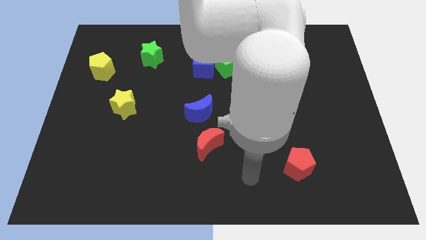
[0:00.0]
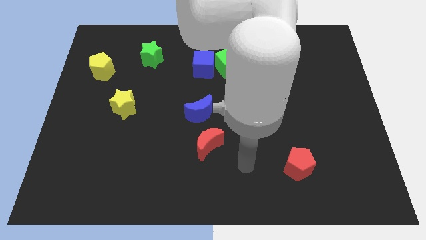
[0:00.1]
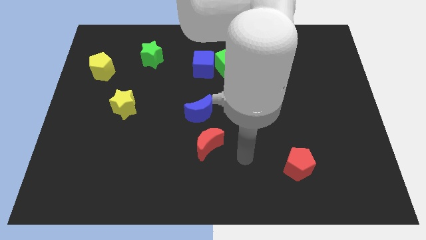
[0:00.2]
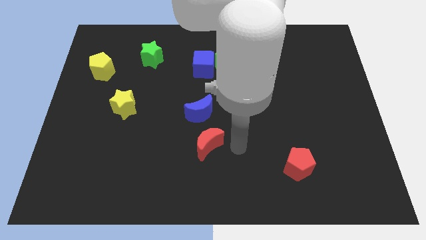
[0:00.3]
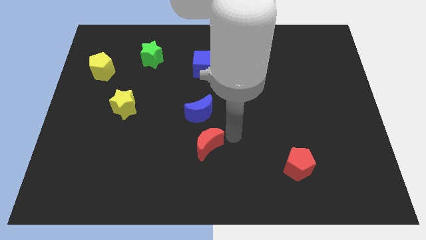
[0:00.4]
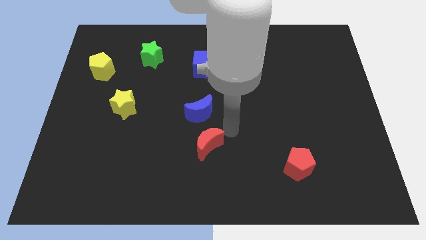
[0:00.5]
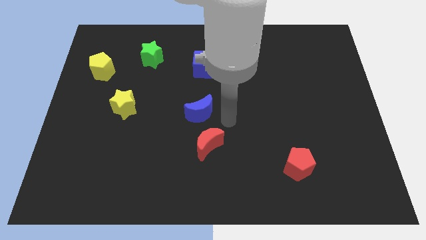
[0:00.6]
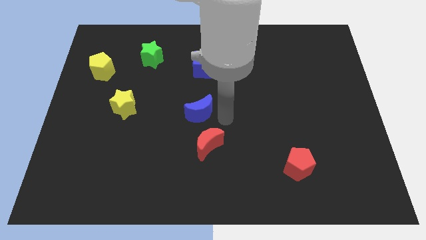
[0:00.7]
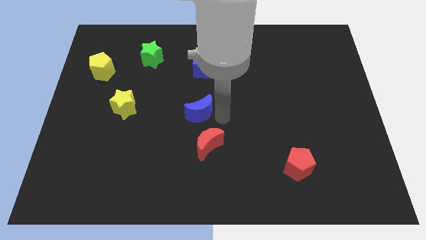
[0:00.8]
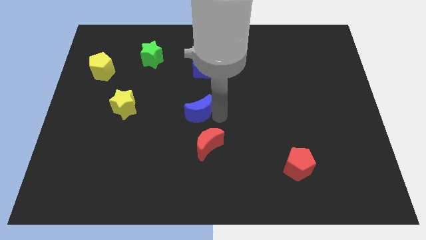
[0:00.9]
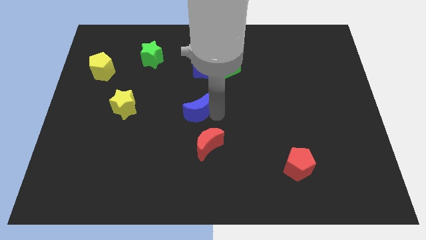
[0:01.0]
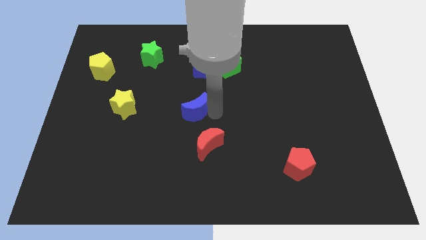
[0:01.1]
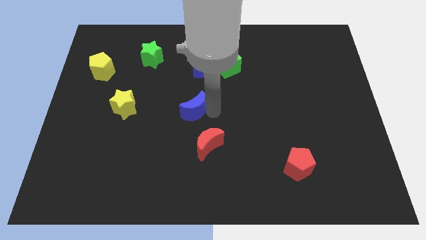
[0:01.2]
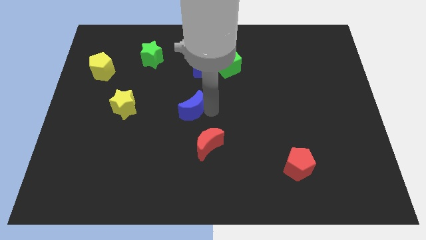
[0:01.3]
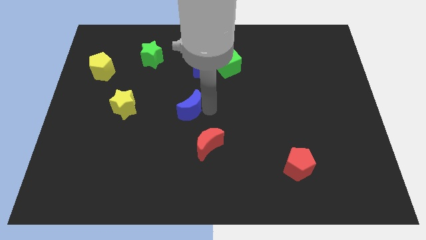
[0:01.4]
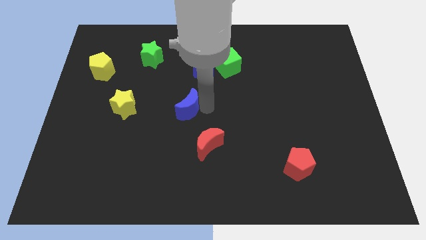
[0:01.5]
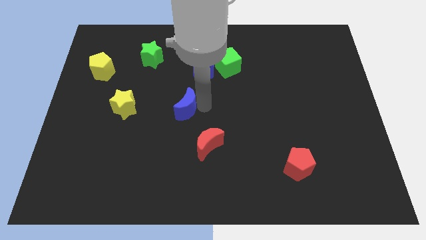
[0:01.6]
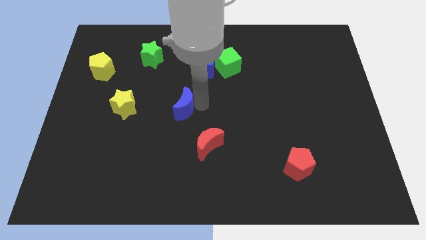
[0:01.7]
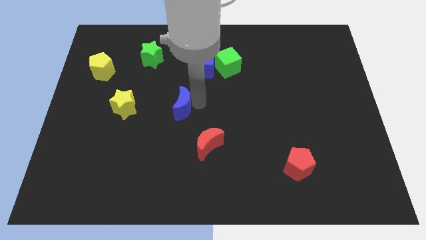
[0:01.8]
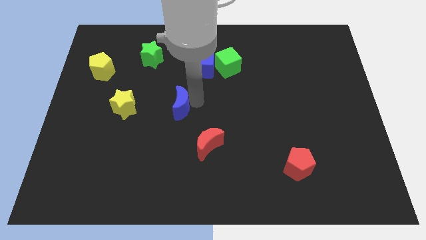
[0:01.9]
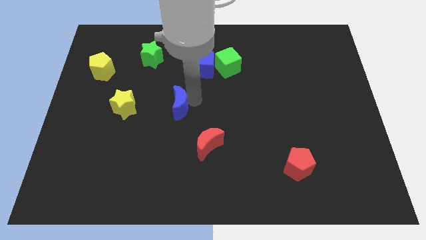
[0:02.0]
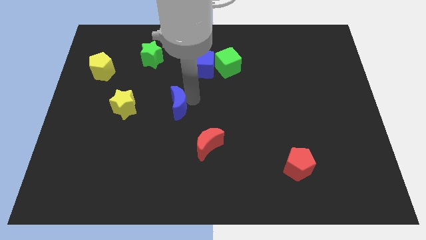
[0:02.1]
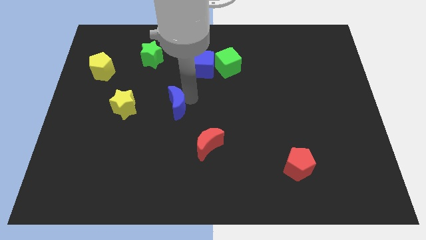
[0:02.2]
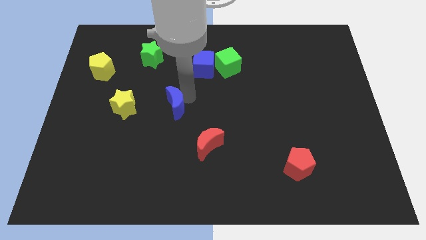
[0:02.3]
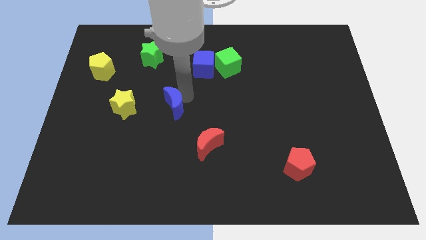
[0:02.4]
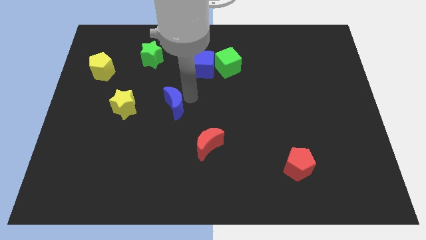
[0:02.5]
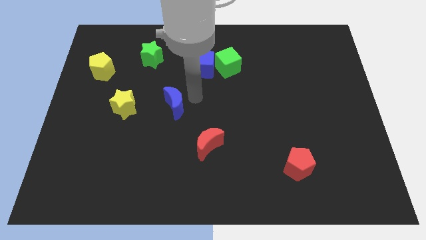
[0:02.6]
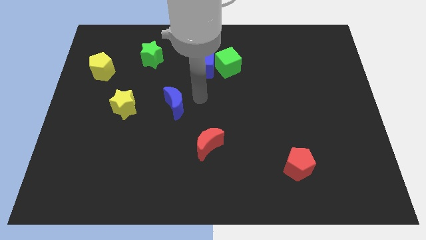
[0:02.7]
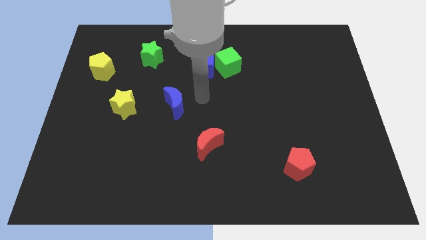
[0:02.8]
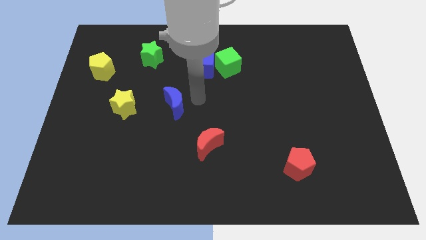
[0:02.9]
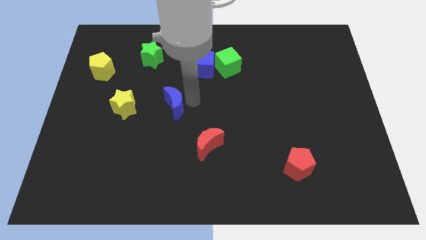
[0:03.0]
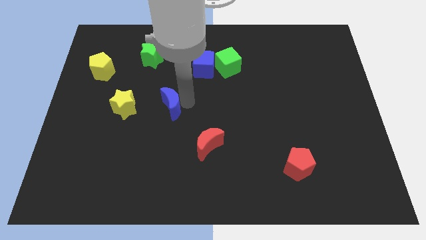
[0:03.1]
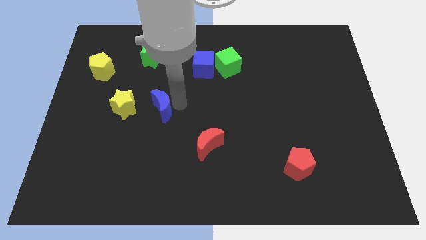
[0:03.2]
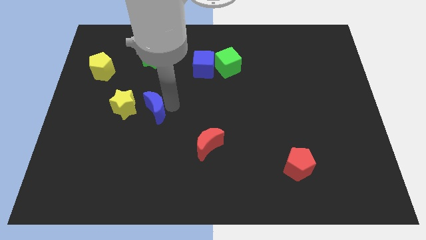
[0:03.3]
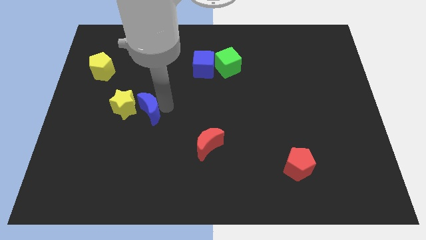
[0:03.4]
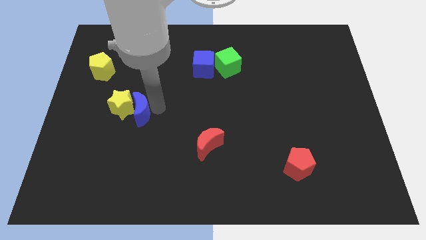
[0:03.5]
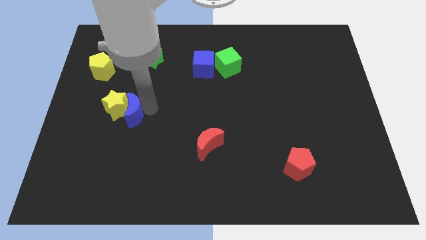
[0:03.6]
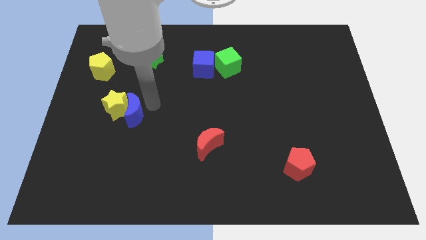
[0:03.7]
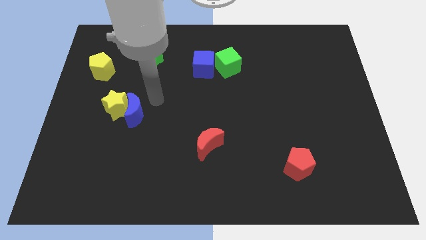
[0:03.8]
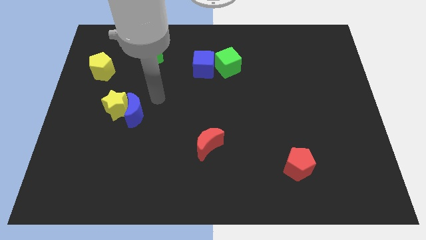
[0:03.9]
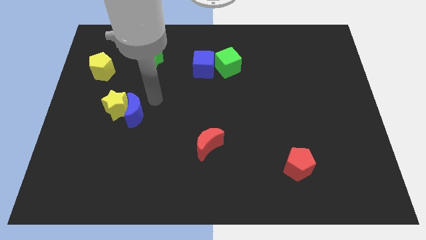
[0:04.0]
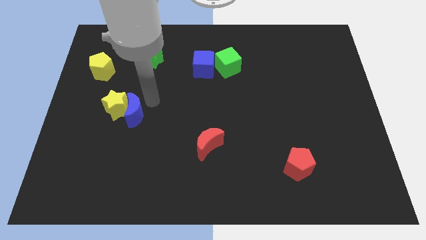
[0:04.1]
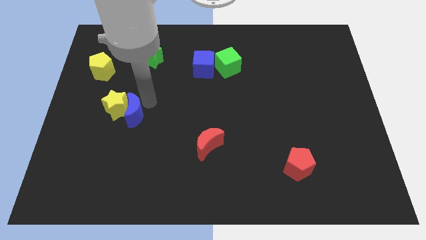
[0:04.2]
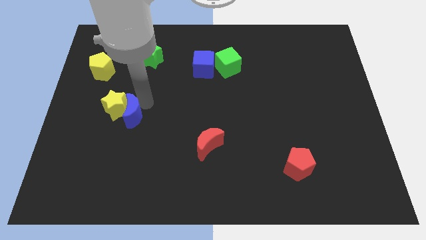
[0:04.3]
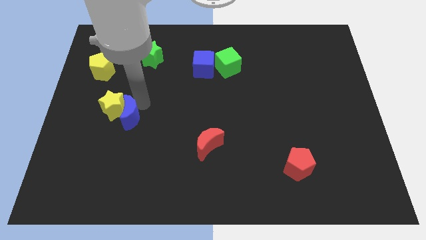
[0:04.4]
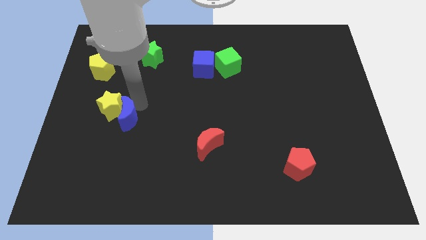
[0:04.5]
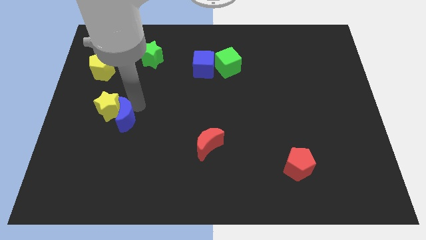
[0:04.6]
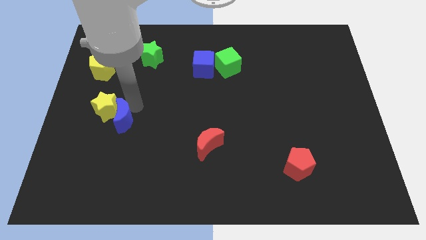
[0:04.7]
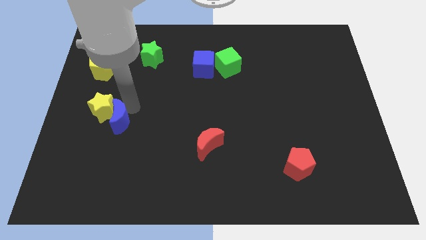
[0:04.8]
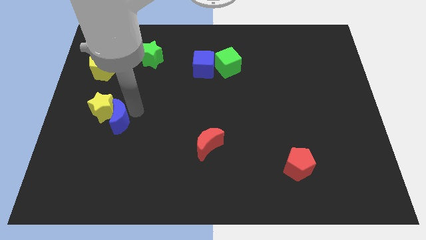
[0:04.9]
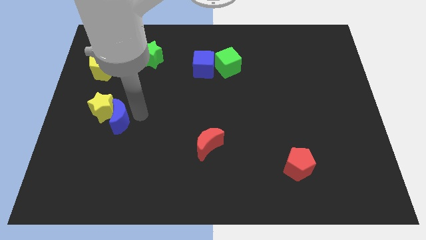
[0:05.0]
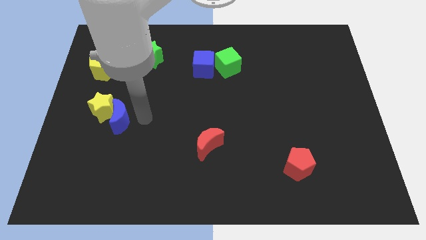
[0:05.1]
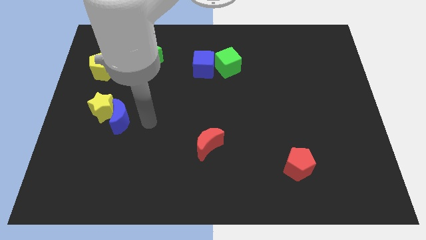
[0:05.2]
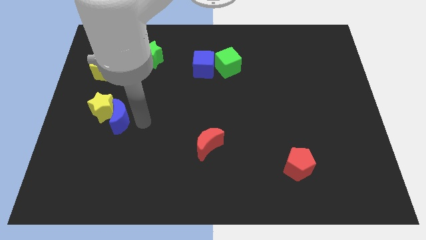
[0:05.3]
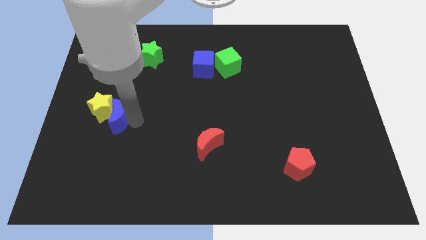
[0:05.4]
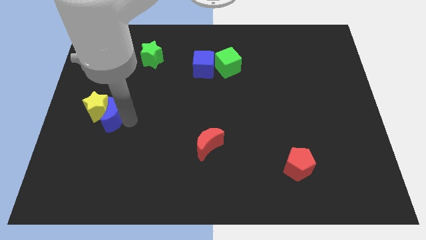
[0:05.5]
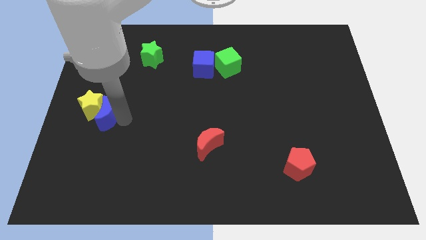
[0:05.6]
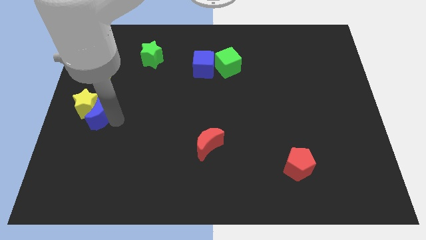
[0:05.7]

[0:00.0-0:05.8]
move the blue moon to the bottom of the yellow pentagon

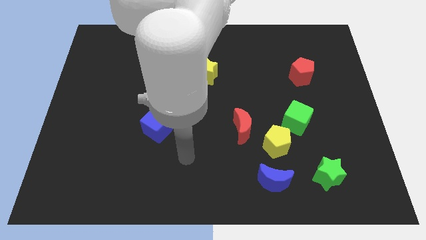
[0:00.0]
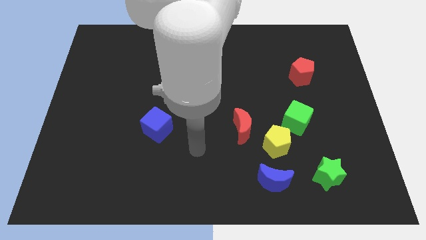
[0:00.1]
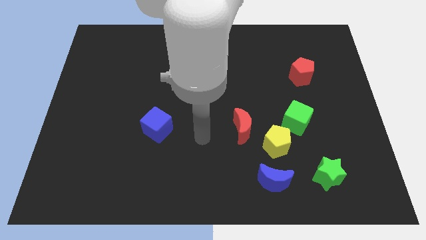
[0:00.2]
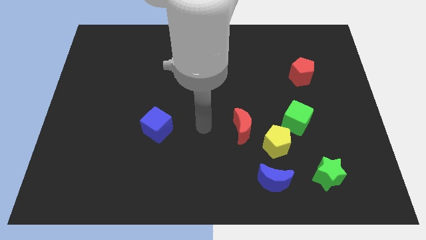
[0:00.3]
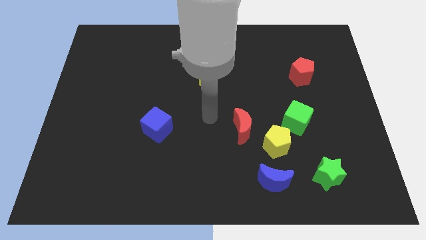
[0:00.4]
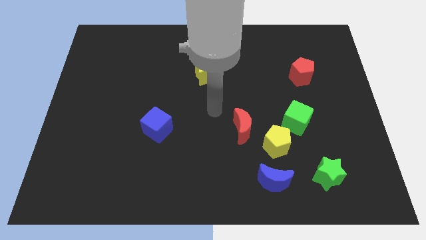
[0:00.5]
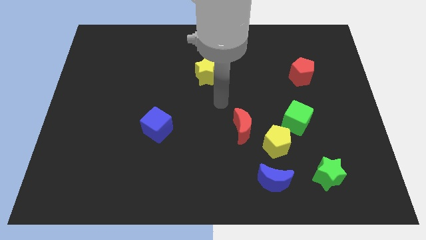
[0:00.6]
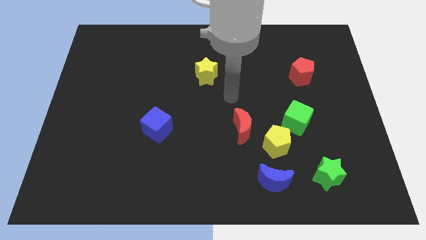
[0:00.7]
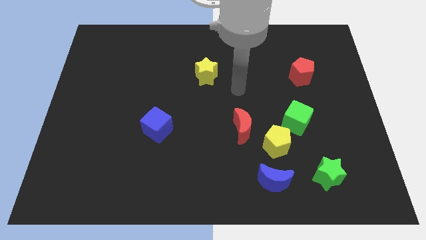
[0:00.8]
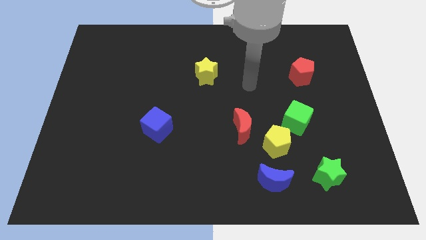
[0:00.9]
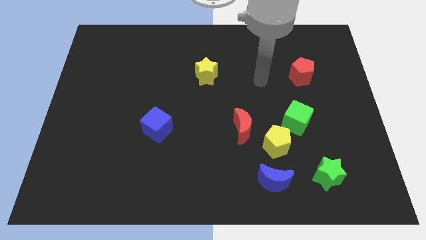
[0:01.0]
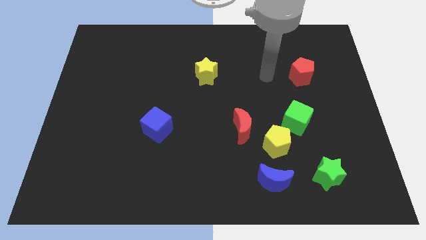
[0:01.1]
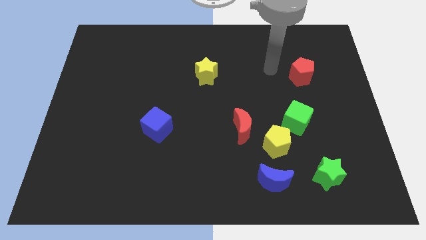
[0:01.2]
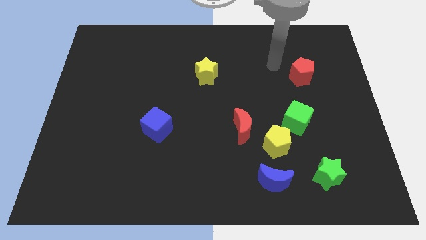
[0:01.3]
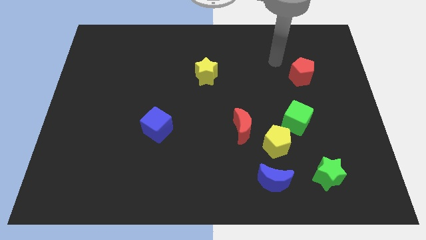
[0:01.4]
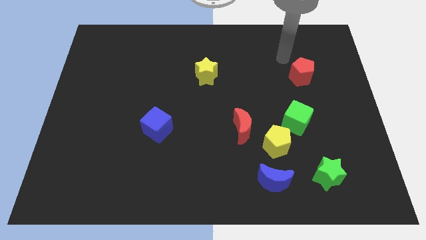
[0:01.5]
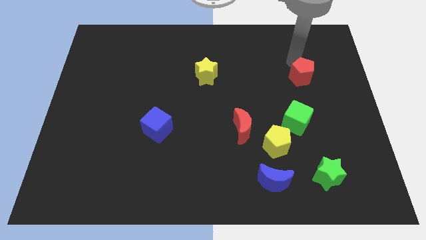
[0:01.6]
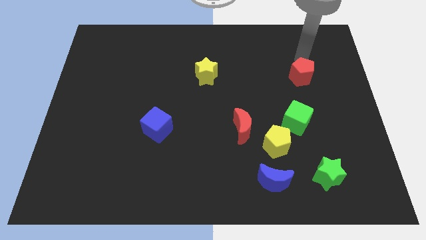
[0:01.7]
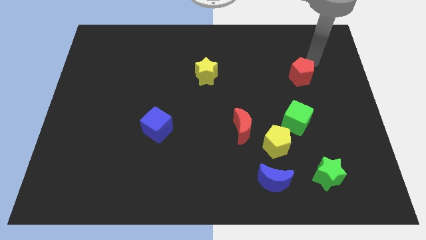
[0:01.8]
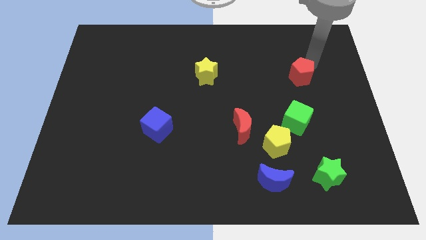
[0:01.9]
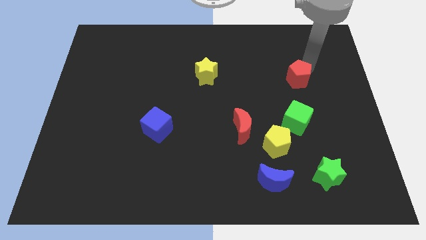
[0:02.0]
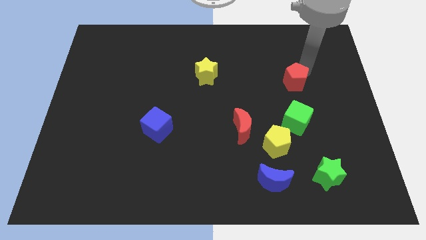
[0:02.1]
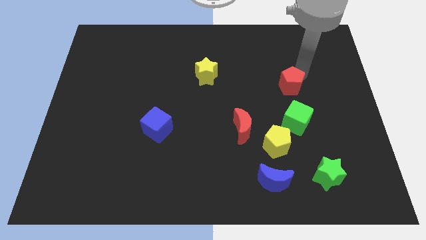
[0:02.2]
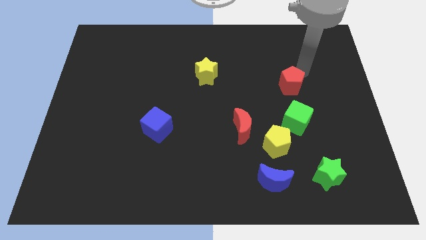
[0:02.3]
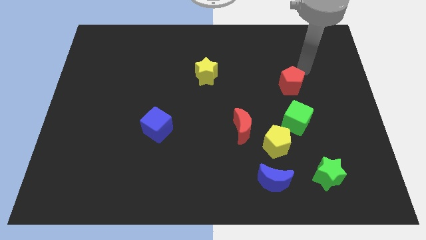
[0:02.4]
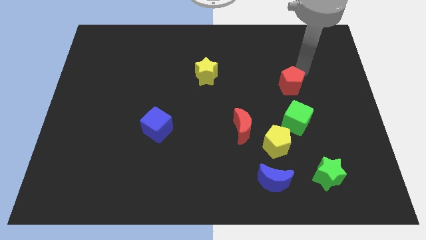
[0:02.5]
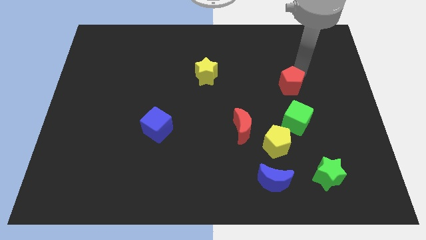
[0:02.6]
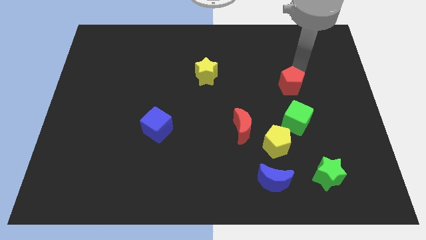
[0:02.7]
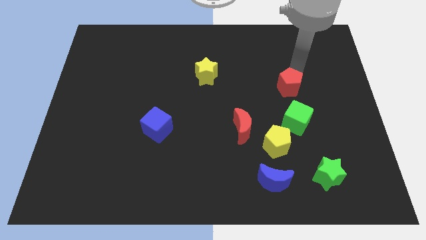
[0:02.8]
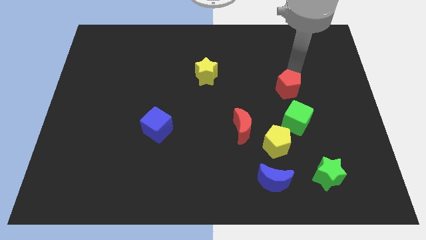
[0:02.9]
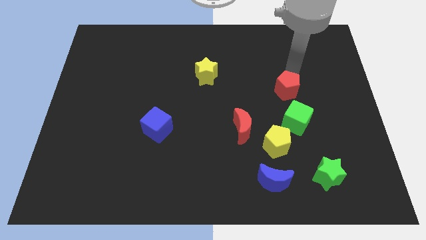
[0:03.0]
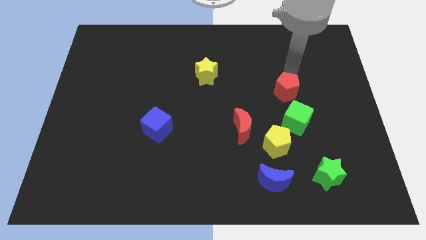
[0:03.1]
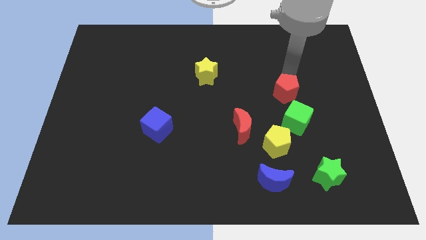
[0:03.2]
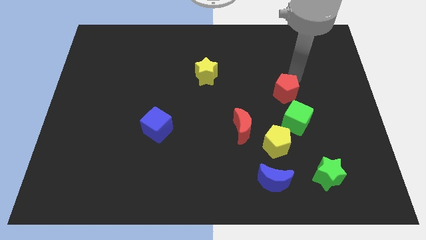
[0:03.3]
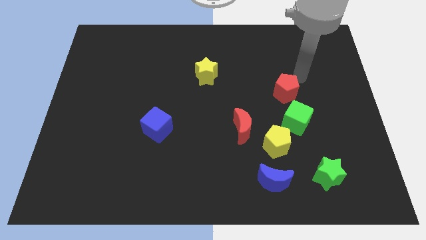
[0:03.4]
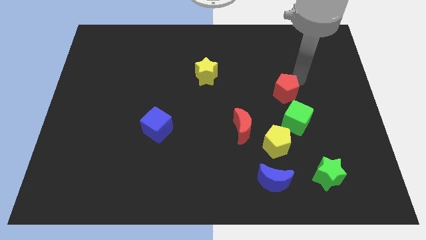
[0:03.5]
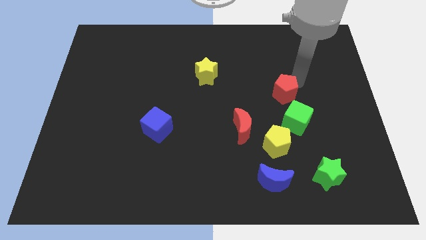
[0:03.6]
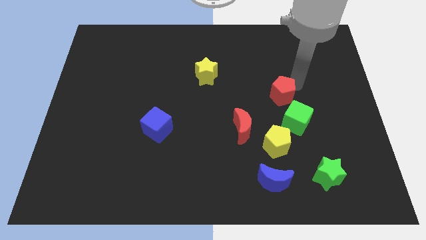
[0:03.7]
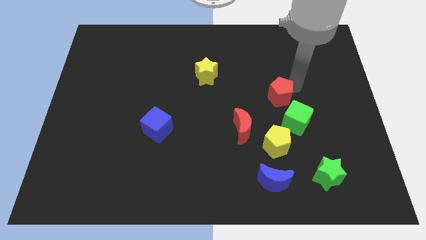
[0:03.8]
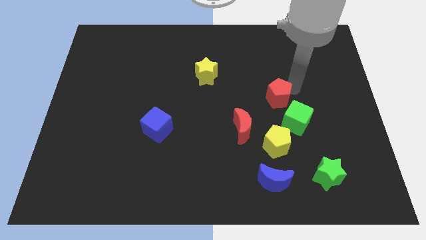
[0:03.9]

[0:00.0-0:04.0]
put the red pentagon diagonally up and to the right of the red moon
